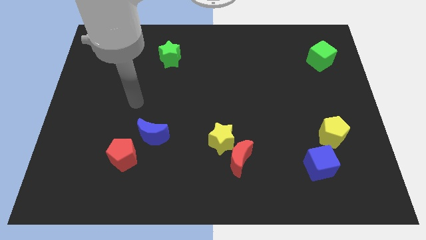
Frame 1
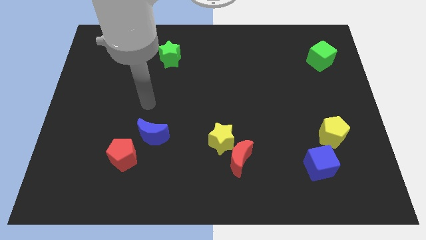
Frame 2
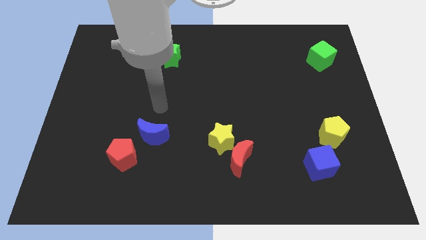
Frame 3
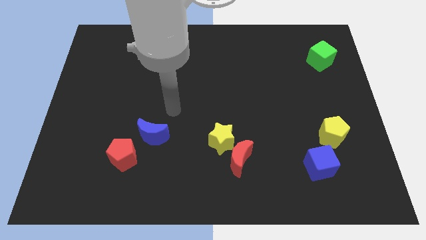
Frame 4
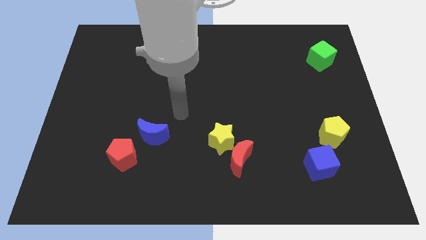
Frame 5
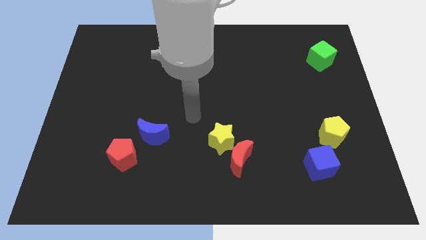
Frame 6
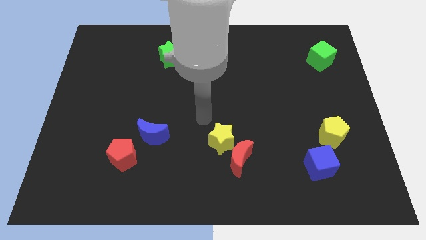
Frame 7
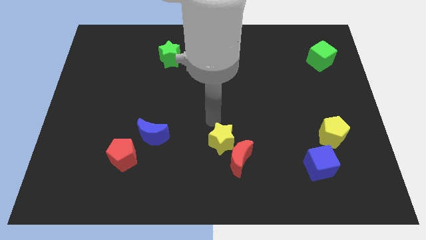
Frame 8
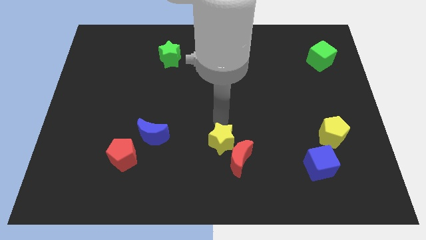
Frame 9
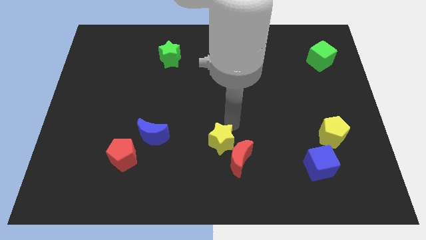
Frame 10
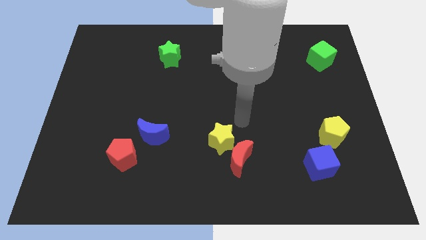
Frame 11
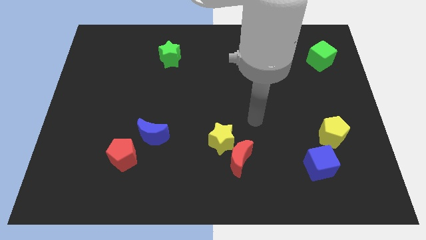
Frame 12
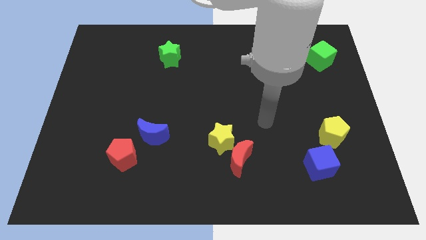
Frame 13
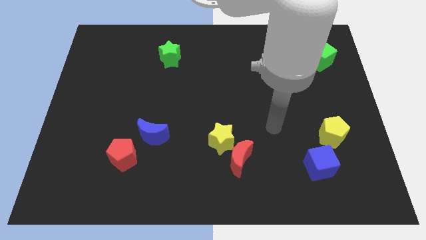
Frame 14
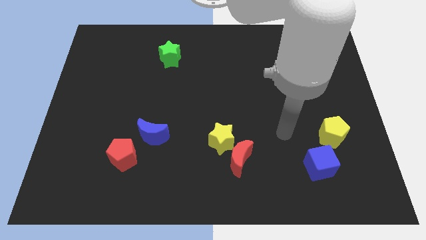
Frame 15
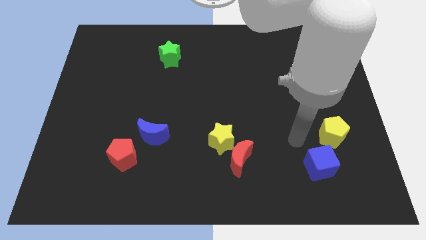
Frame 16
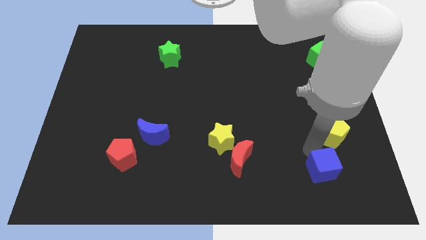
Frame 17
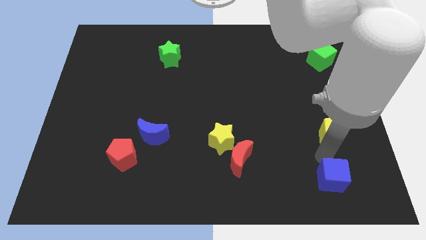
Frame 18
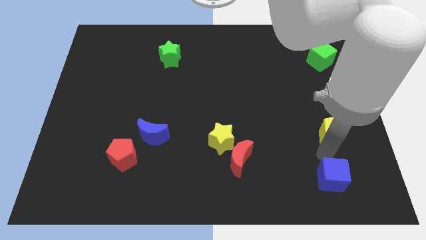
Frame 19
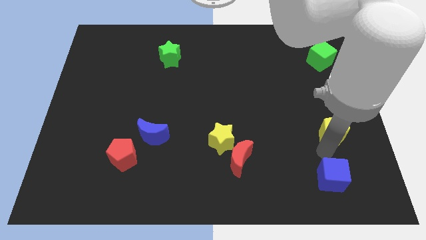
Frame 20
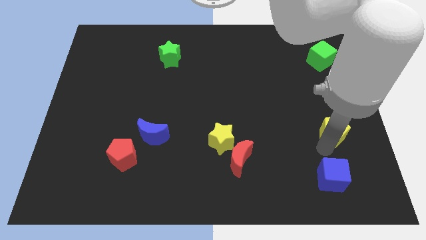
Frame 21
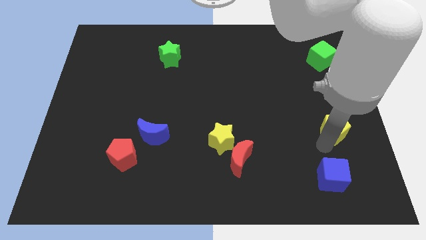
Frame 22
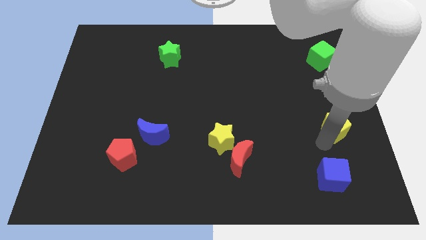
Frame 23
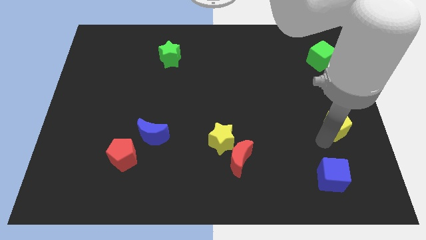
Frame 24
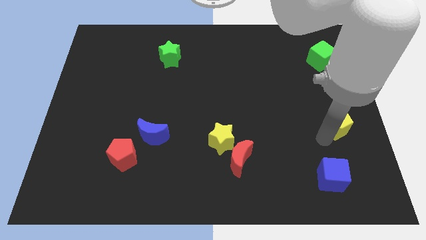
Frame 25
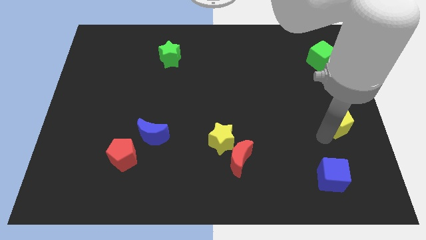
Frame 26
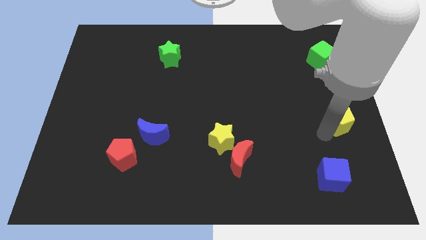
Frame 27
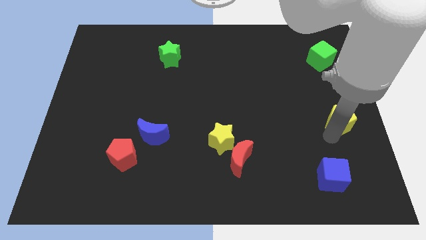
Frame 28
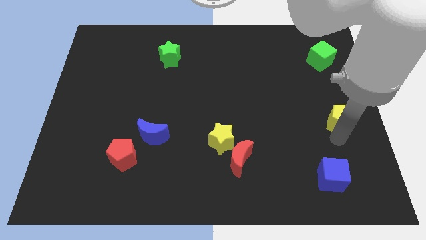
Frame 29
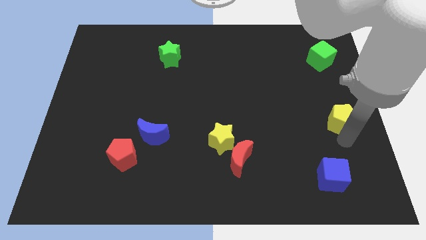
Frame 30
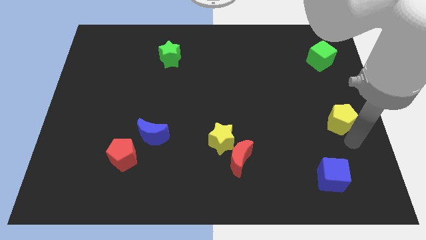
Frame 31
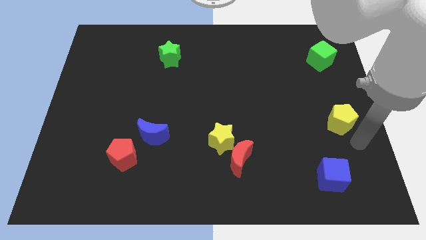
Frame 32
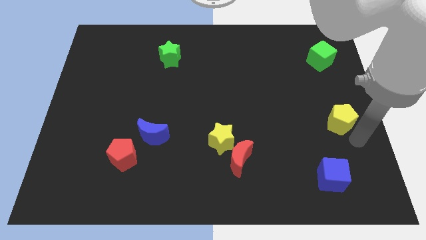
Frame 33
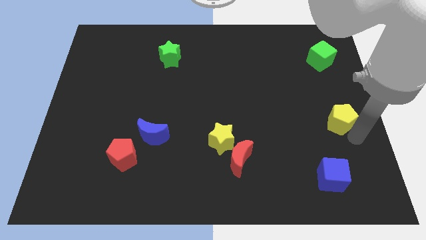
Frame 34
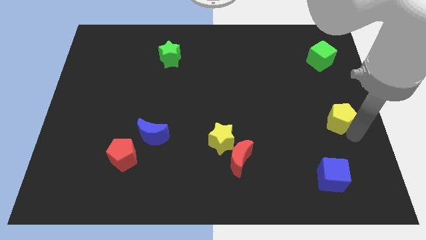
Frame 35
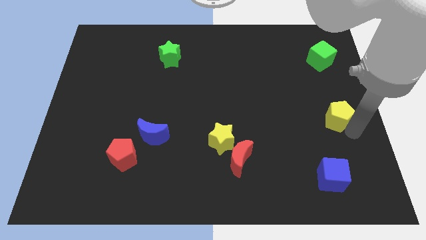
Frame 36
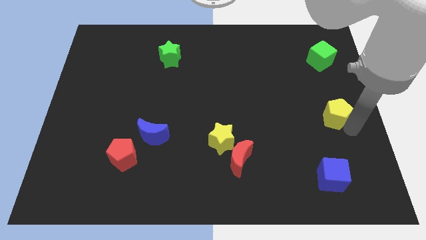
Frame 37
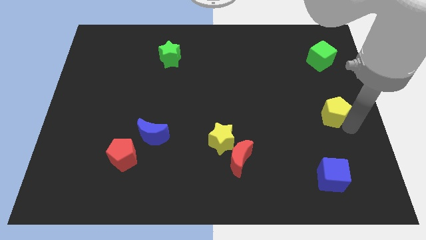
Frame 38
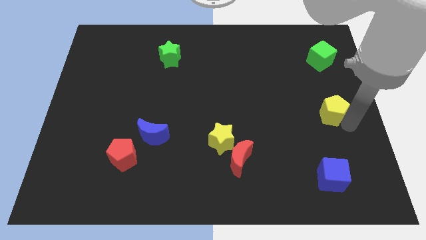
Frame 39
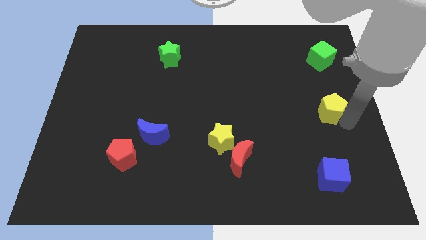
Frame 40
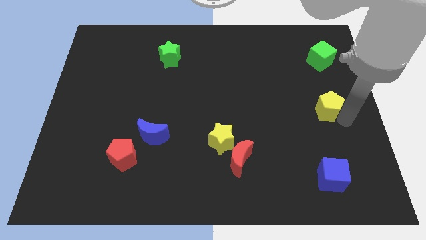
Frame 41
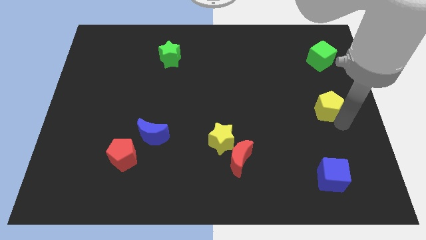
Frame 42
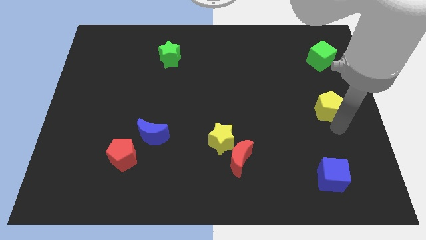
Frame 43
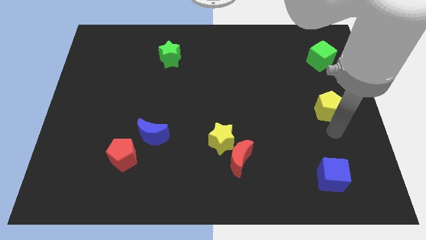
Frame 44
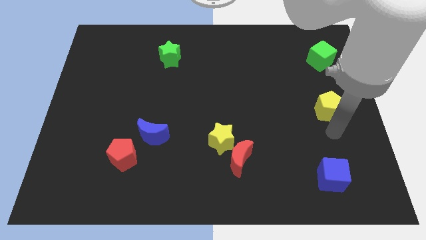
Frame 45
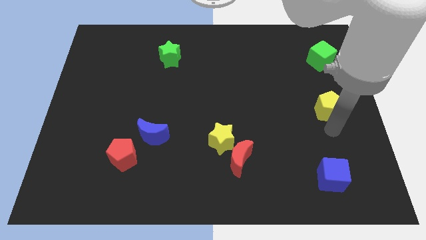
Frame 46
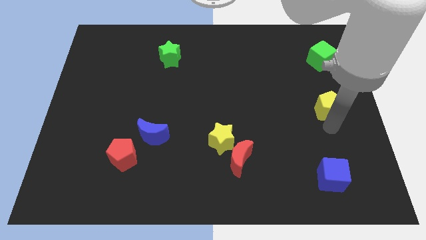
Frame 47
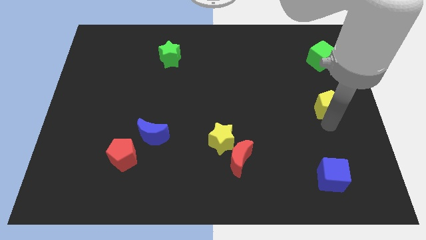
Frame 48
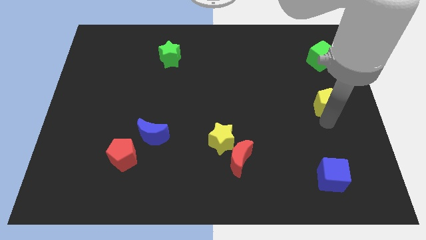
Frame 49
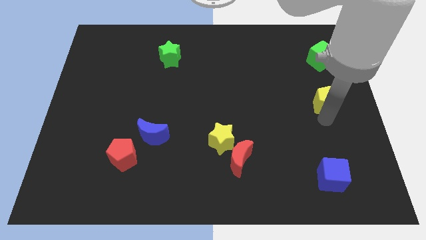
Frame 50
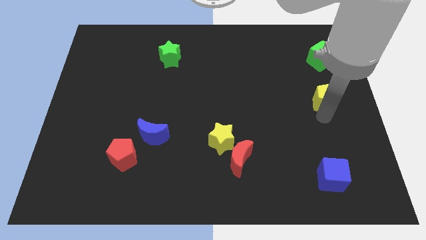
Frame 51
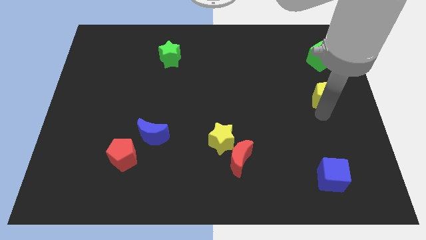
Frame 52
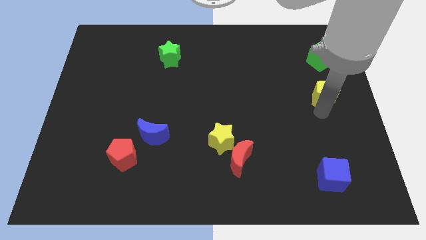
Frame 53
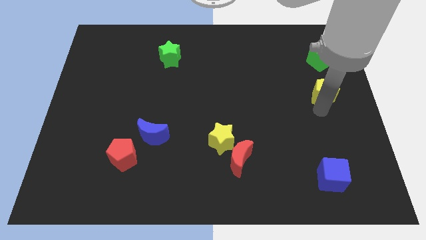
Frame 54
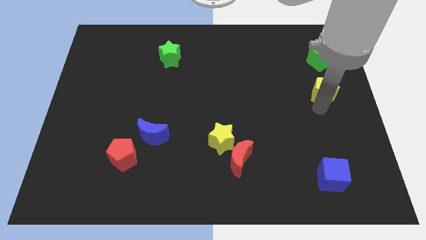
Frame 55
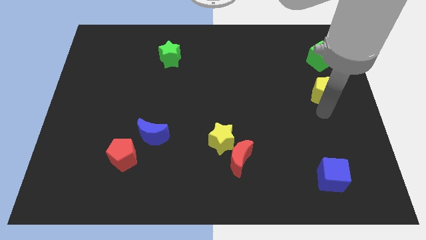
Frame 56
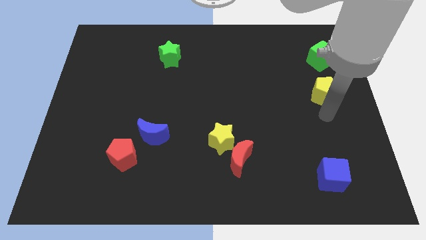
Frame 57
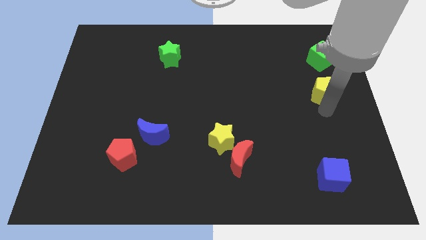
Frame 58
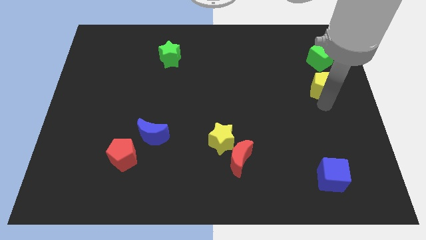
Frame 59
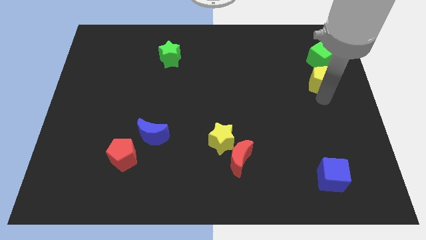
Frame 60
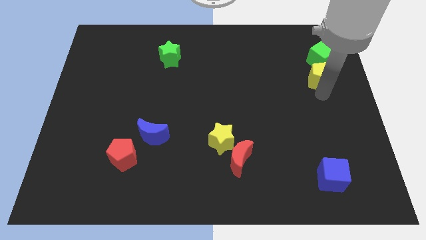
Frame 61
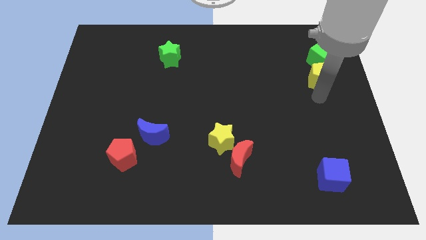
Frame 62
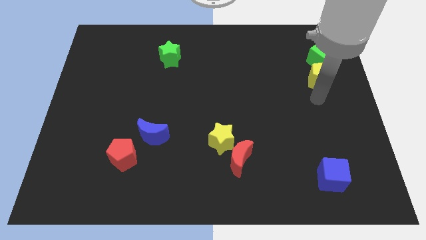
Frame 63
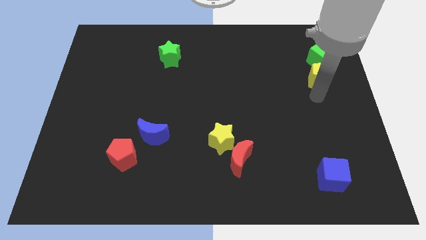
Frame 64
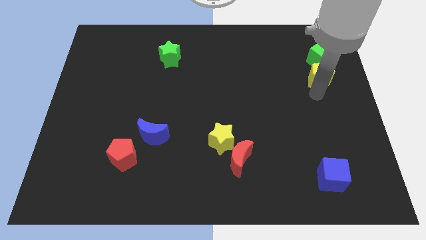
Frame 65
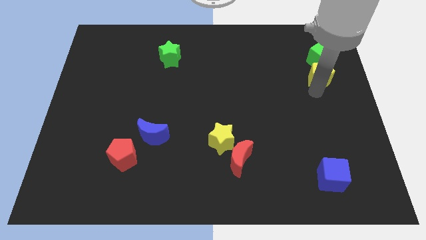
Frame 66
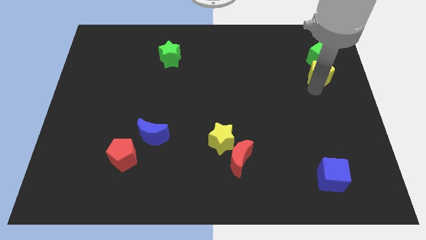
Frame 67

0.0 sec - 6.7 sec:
put the yellow pentagon to the green cube

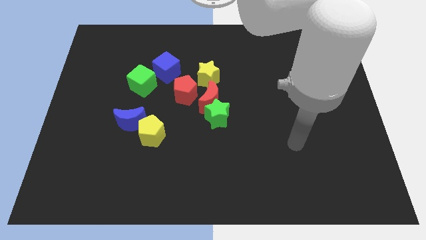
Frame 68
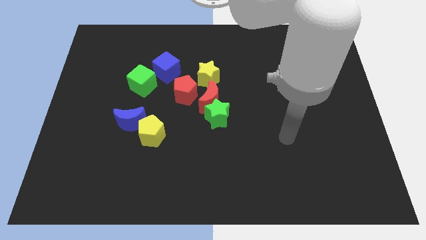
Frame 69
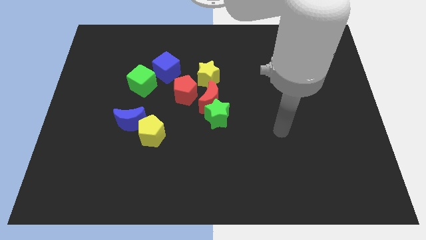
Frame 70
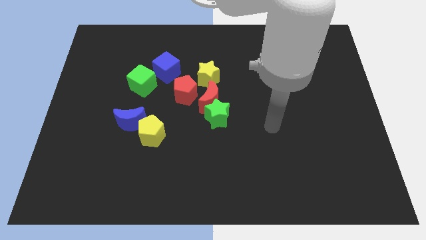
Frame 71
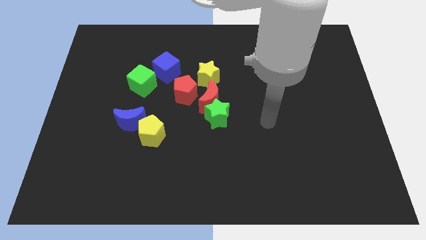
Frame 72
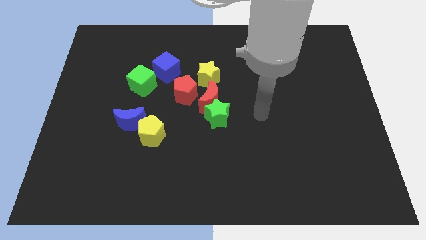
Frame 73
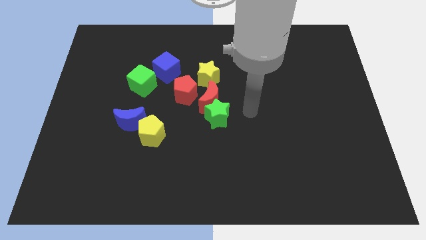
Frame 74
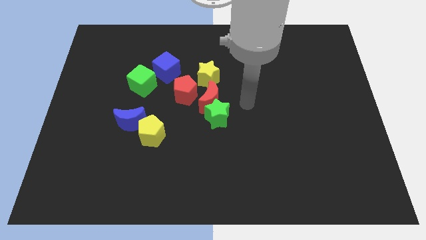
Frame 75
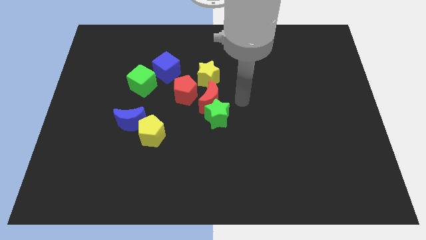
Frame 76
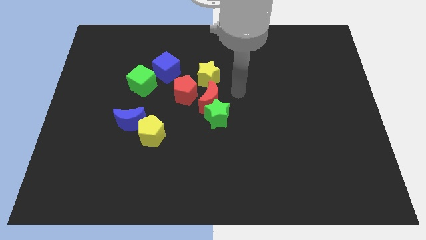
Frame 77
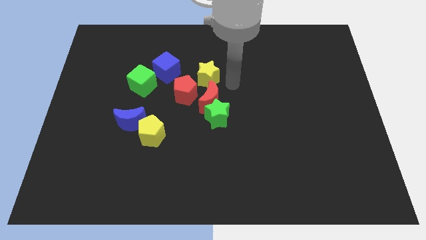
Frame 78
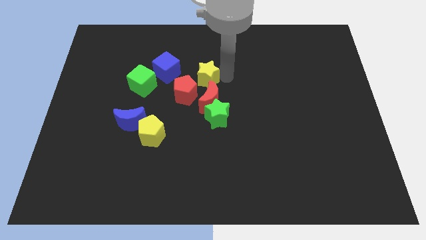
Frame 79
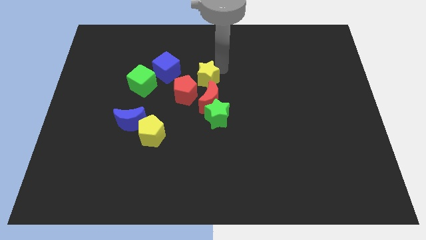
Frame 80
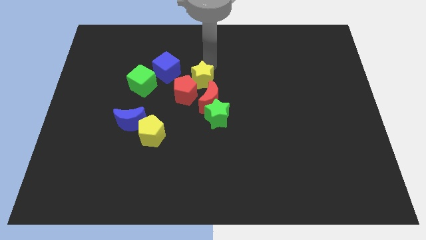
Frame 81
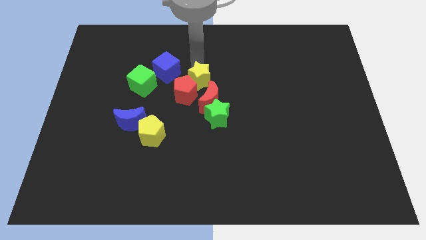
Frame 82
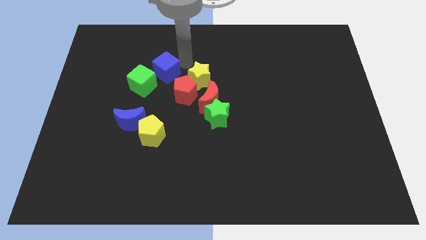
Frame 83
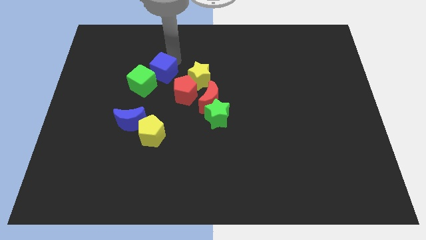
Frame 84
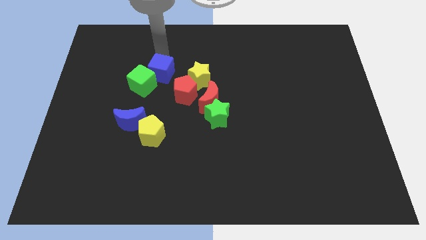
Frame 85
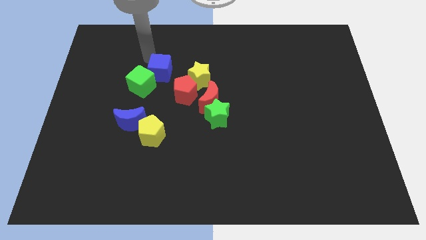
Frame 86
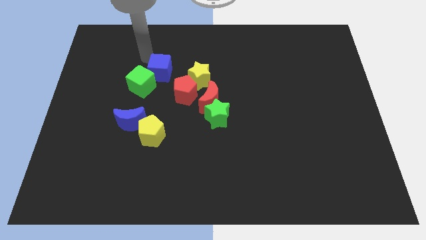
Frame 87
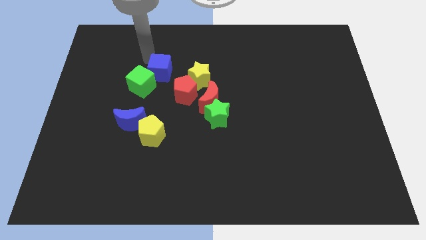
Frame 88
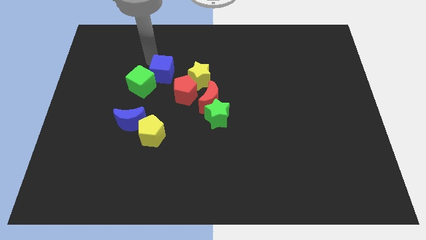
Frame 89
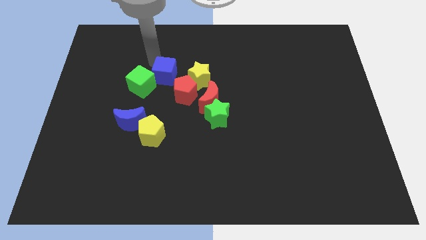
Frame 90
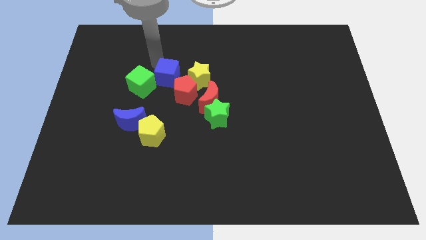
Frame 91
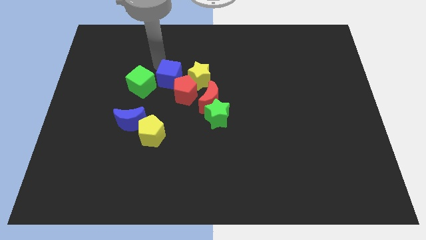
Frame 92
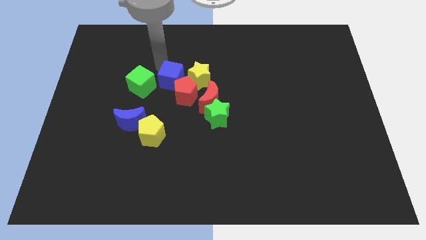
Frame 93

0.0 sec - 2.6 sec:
move the blue cube next to the red pentagon
